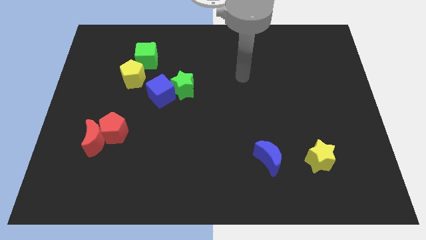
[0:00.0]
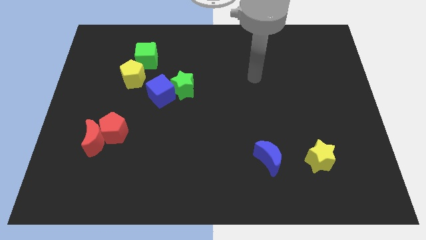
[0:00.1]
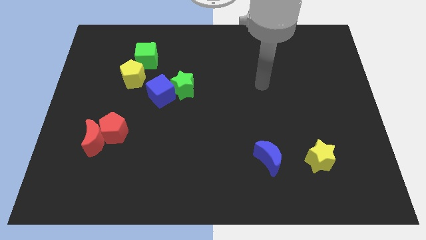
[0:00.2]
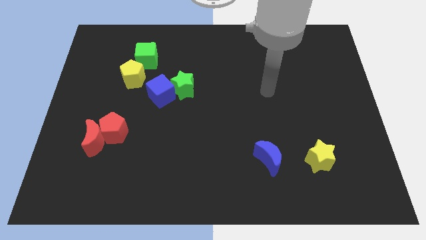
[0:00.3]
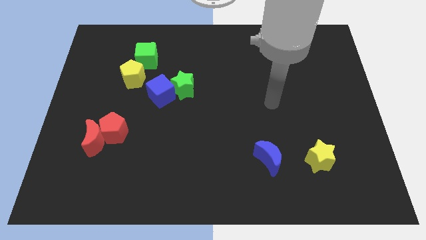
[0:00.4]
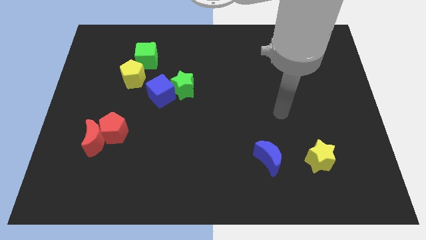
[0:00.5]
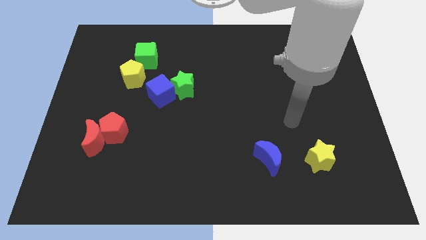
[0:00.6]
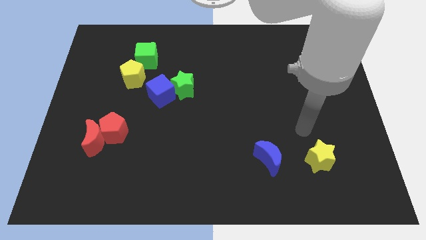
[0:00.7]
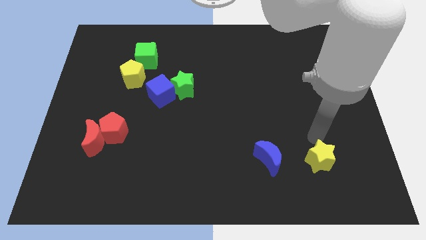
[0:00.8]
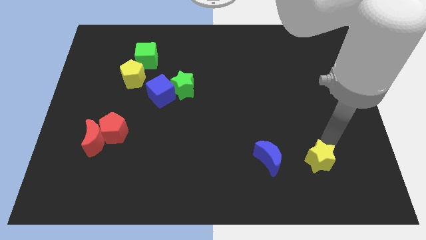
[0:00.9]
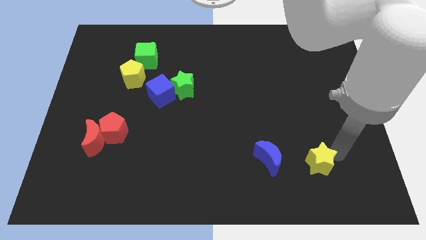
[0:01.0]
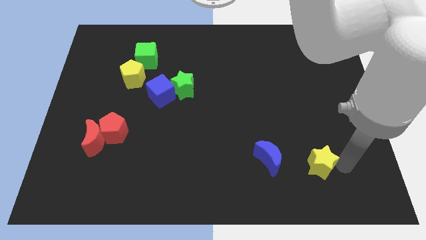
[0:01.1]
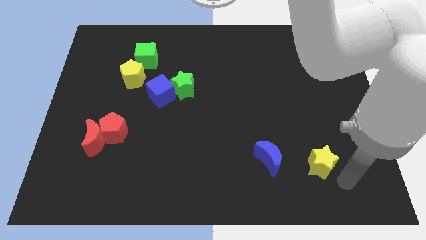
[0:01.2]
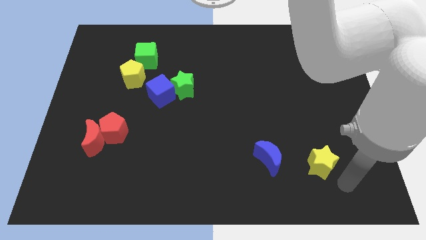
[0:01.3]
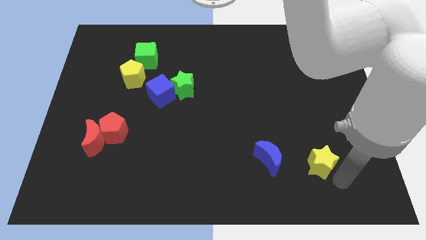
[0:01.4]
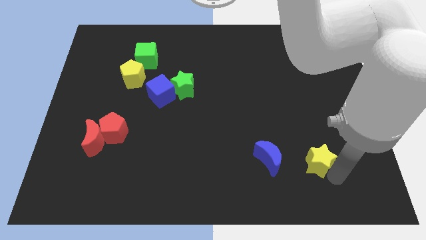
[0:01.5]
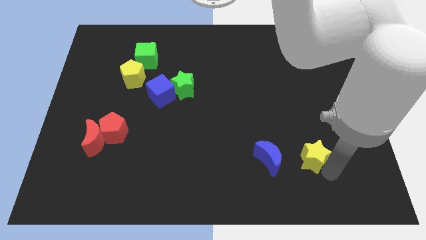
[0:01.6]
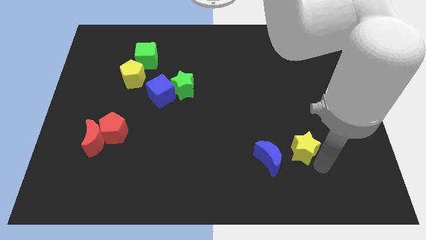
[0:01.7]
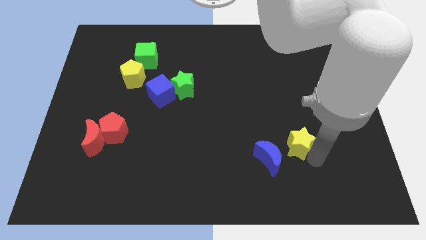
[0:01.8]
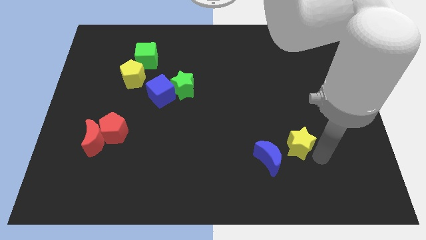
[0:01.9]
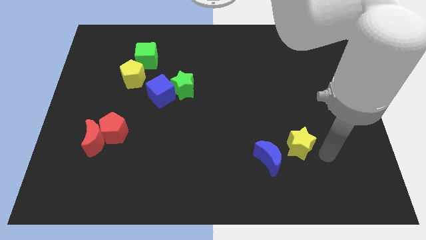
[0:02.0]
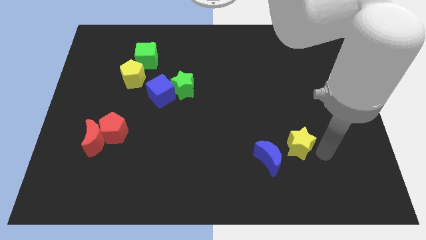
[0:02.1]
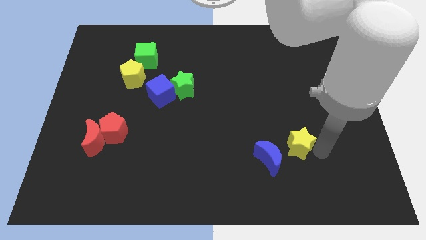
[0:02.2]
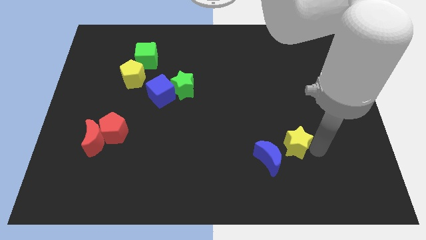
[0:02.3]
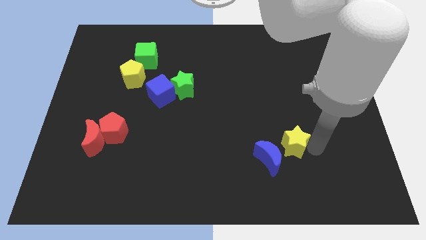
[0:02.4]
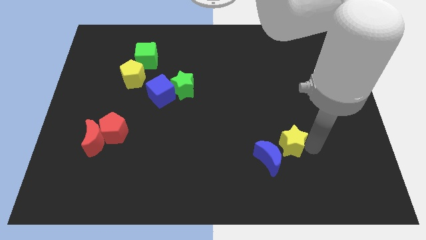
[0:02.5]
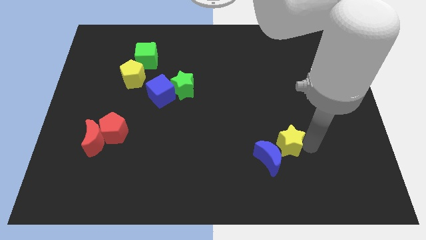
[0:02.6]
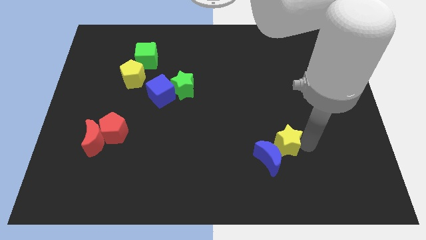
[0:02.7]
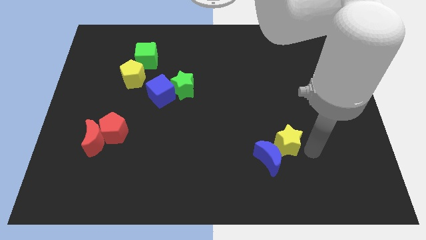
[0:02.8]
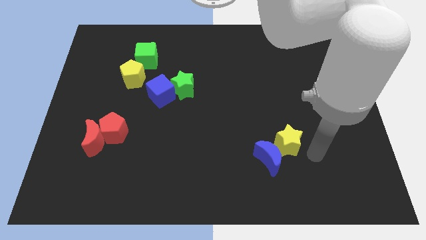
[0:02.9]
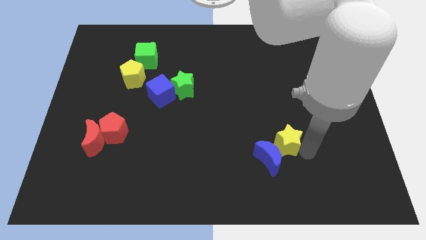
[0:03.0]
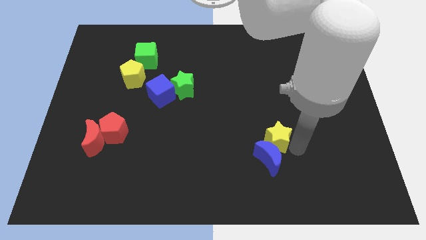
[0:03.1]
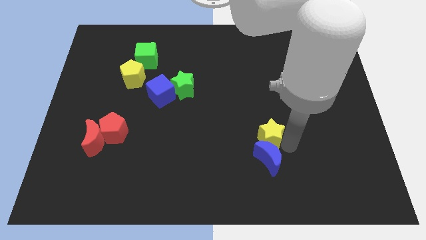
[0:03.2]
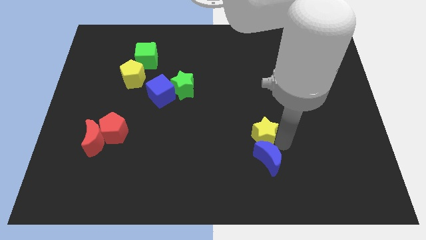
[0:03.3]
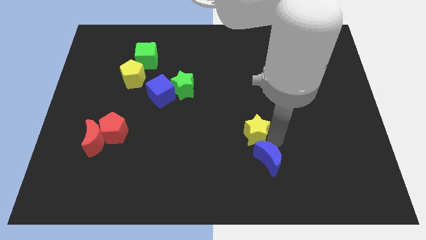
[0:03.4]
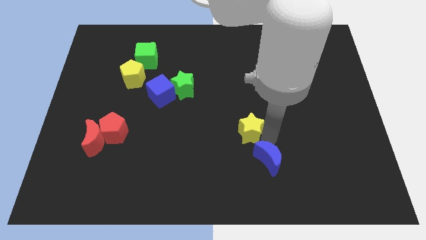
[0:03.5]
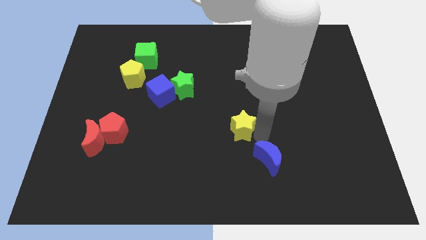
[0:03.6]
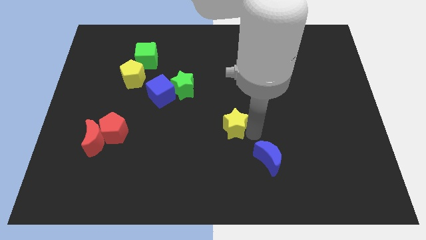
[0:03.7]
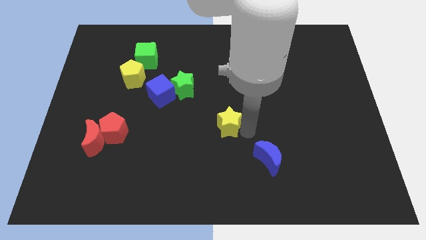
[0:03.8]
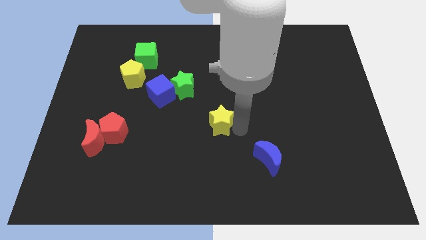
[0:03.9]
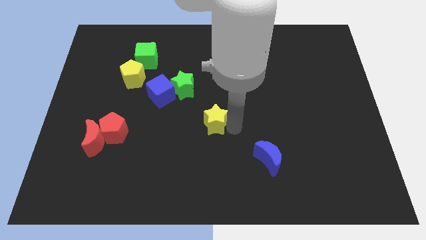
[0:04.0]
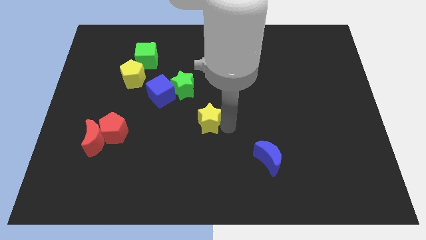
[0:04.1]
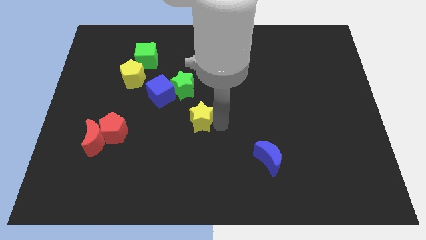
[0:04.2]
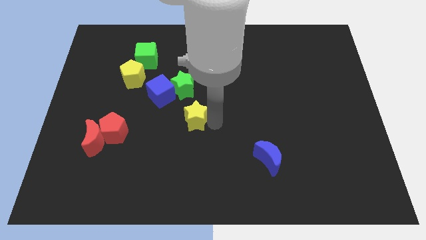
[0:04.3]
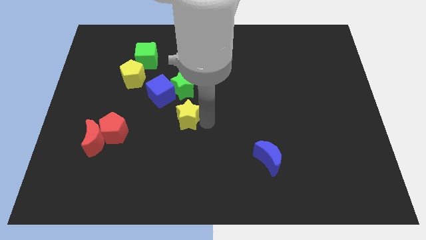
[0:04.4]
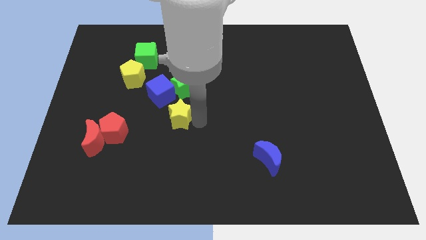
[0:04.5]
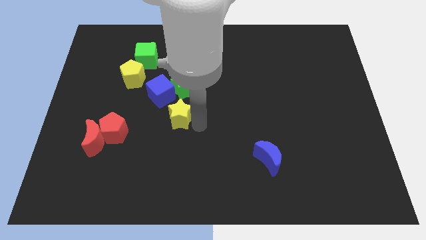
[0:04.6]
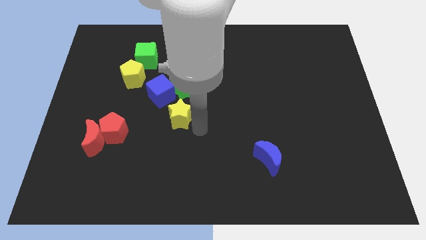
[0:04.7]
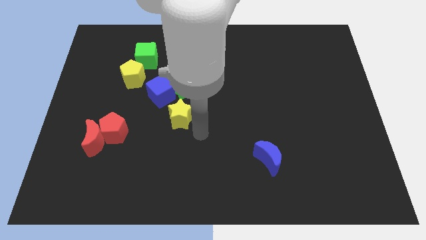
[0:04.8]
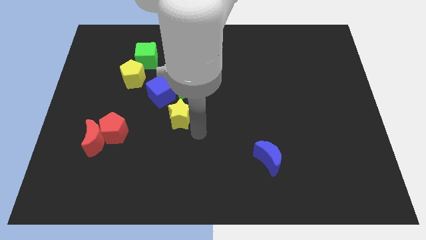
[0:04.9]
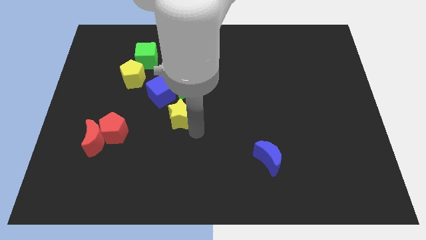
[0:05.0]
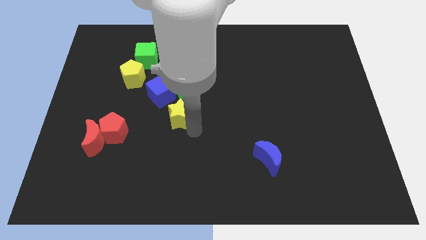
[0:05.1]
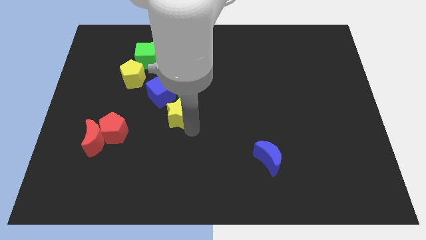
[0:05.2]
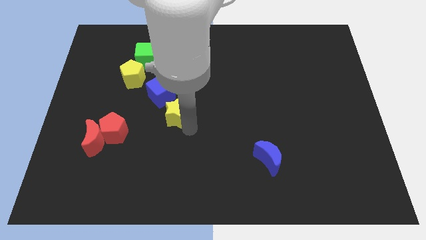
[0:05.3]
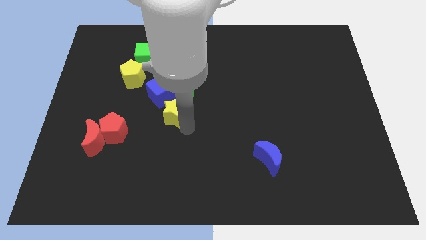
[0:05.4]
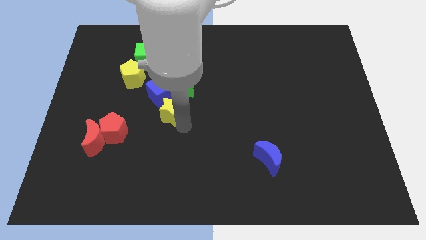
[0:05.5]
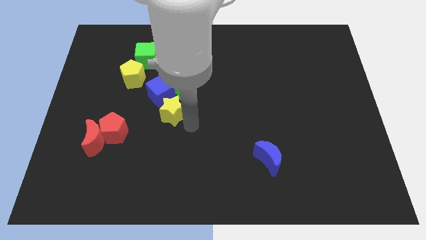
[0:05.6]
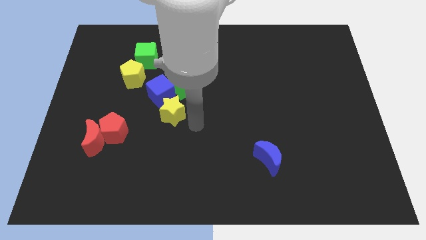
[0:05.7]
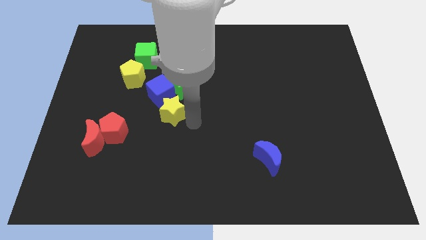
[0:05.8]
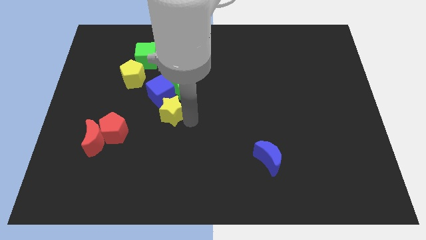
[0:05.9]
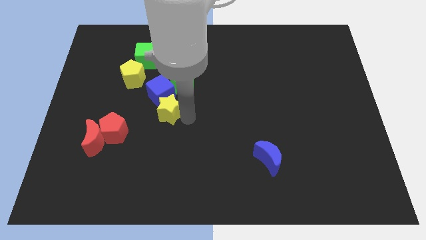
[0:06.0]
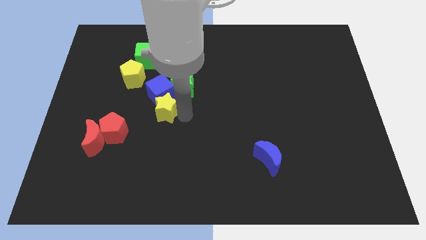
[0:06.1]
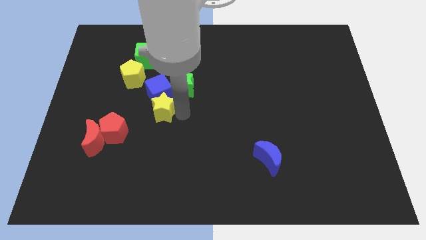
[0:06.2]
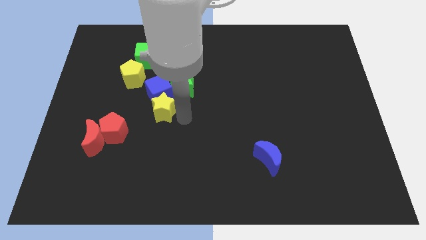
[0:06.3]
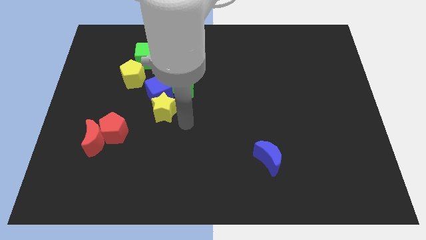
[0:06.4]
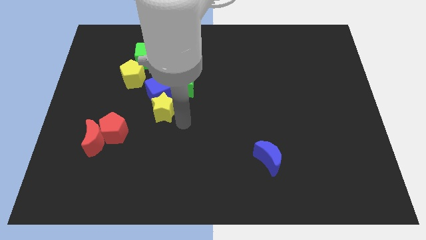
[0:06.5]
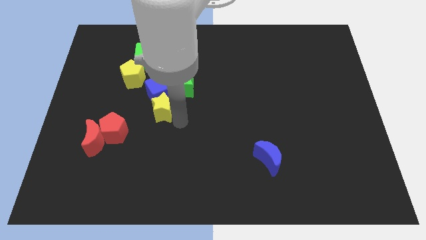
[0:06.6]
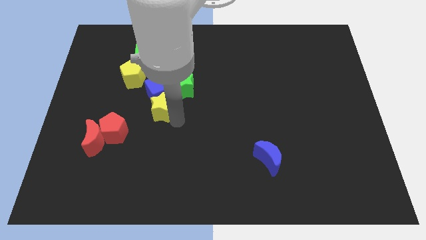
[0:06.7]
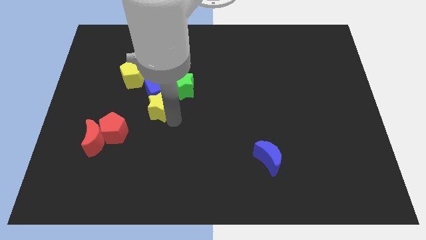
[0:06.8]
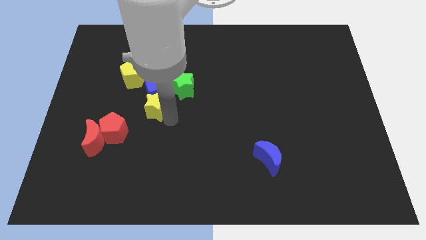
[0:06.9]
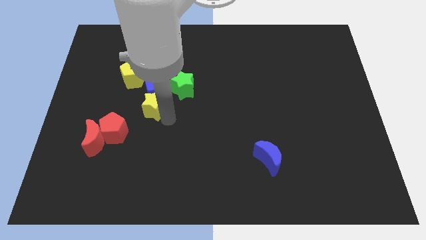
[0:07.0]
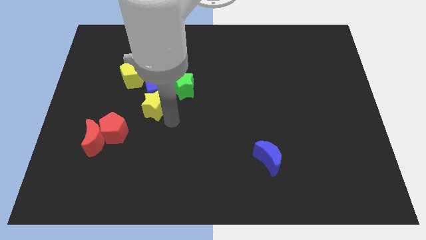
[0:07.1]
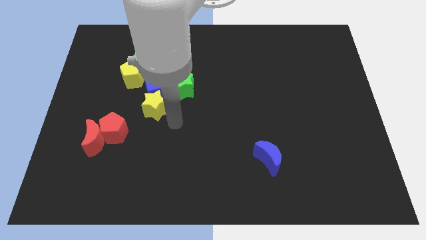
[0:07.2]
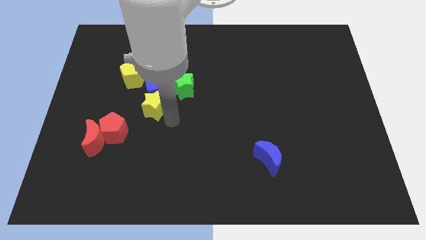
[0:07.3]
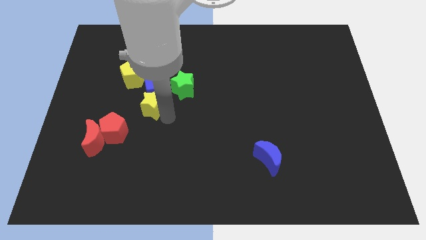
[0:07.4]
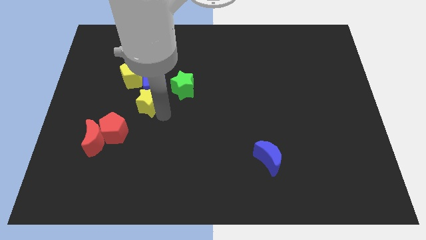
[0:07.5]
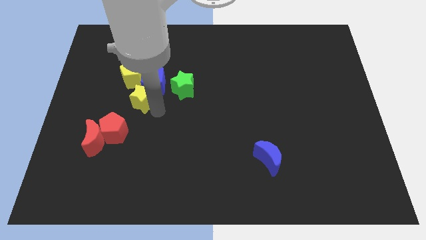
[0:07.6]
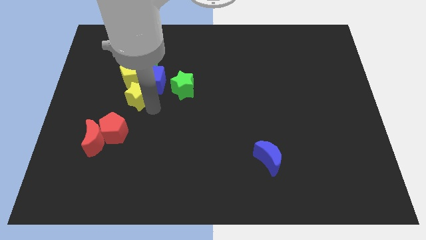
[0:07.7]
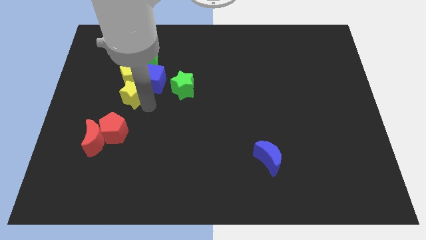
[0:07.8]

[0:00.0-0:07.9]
push the yellow star close to the yellow pentagon
